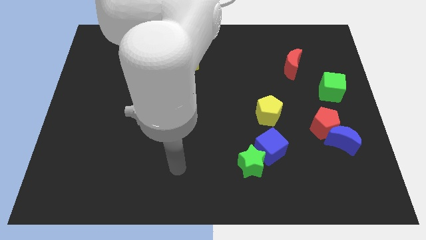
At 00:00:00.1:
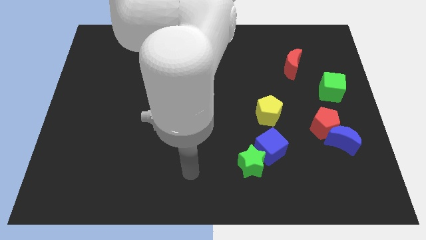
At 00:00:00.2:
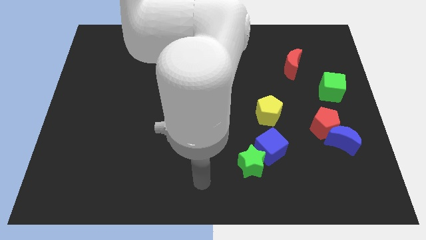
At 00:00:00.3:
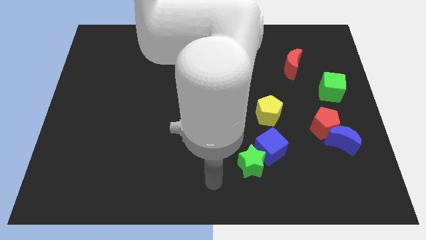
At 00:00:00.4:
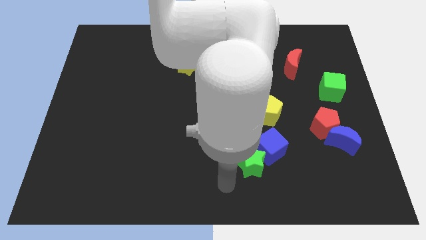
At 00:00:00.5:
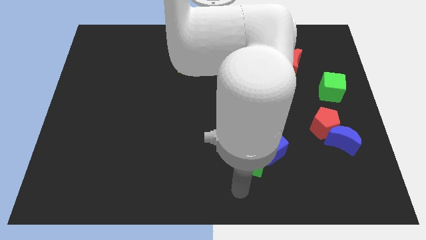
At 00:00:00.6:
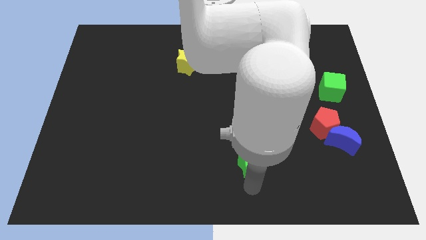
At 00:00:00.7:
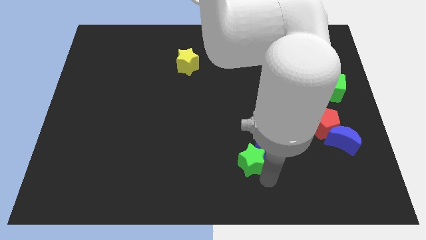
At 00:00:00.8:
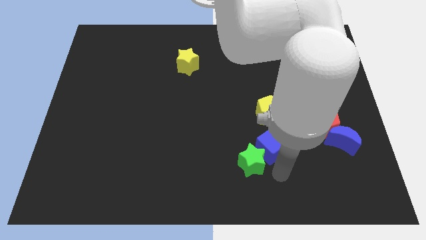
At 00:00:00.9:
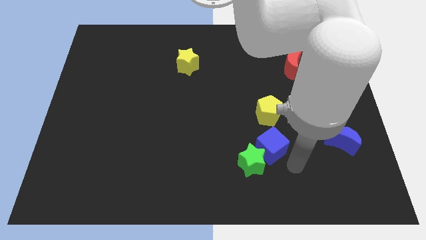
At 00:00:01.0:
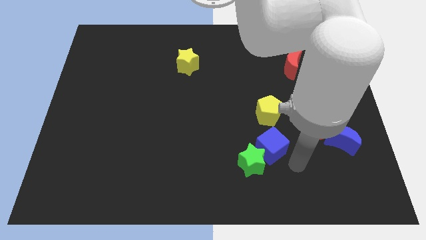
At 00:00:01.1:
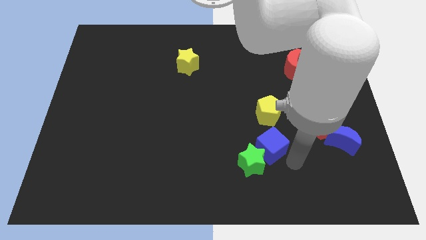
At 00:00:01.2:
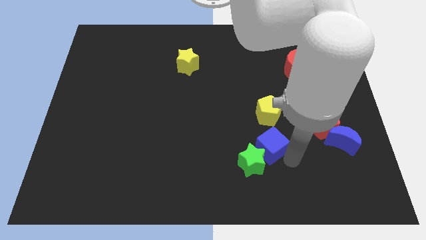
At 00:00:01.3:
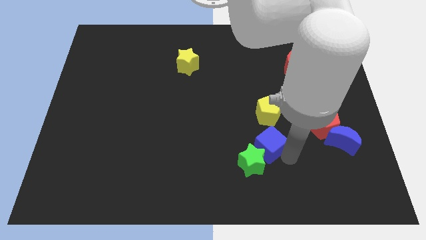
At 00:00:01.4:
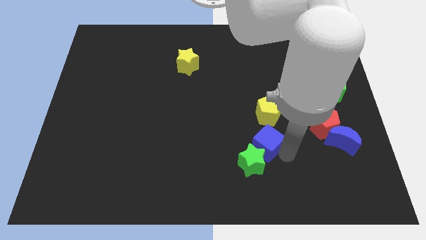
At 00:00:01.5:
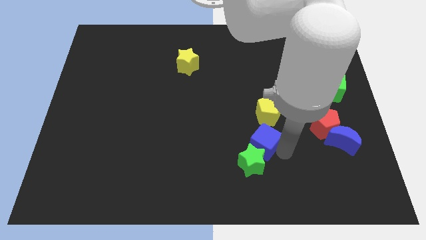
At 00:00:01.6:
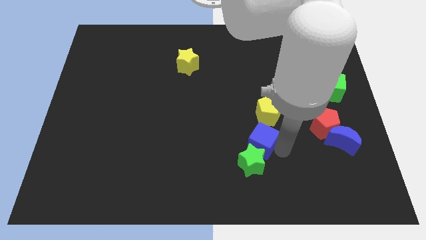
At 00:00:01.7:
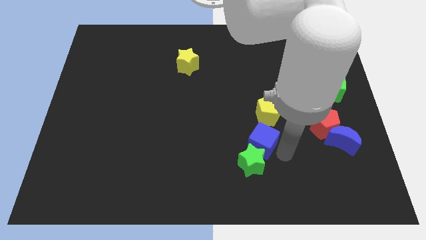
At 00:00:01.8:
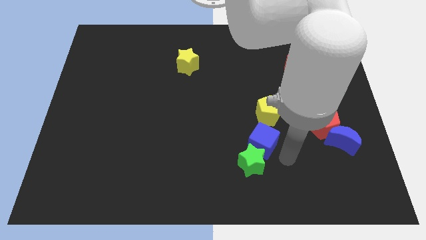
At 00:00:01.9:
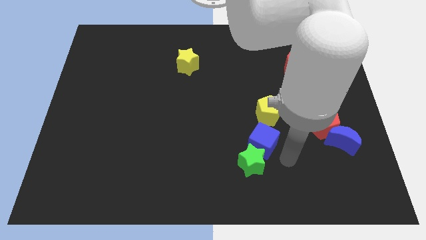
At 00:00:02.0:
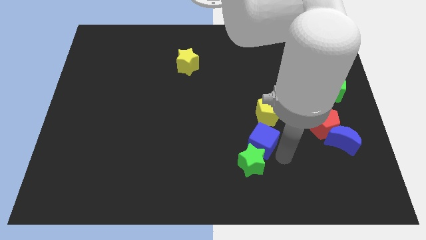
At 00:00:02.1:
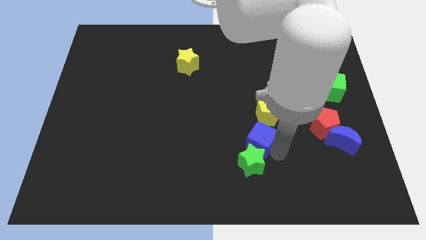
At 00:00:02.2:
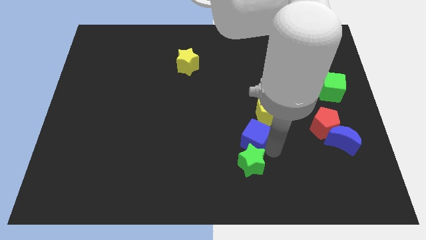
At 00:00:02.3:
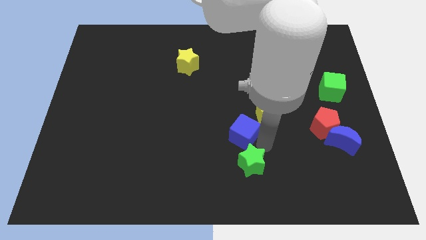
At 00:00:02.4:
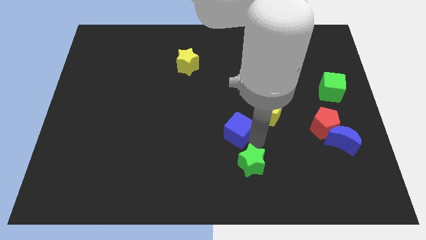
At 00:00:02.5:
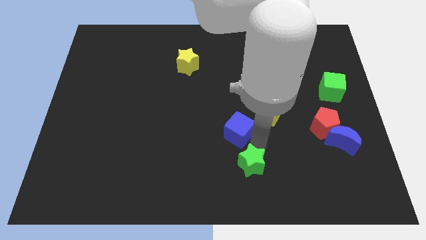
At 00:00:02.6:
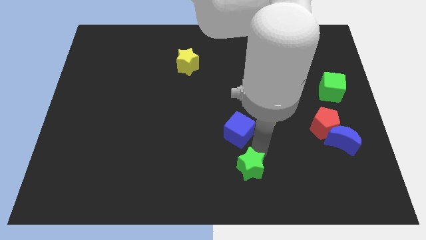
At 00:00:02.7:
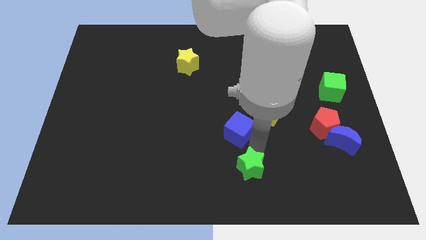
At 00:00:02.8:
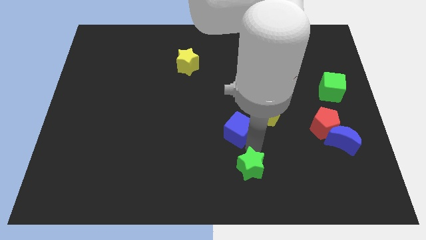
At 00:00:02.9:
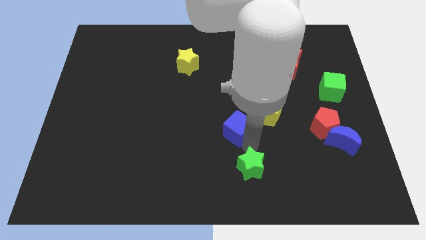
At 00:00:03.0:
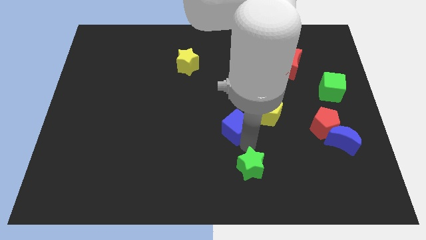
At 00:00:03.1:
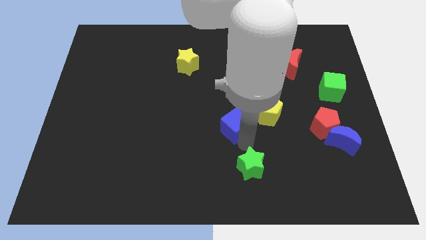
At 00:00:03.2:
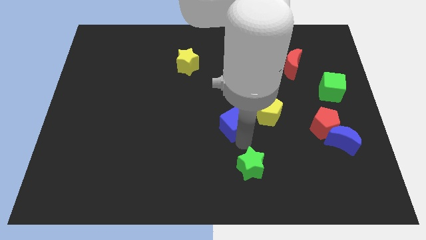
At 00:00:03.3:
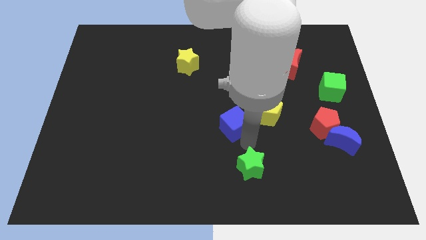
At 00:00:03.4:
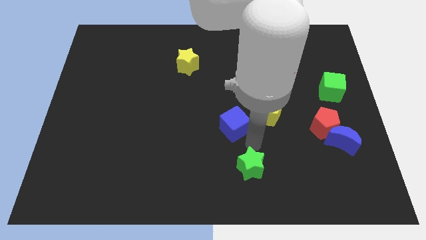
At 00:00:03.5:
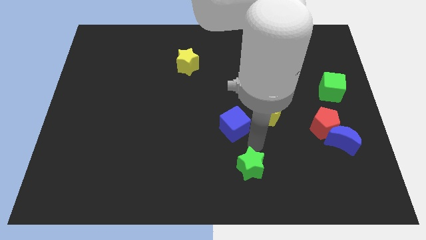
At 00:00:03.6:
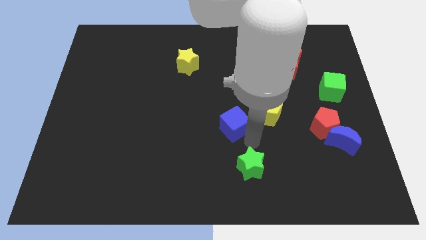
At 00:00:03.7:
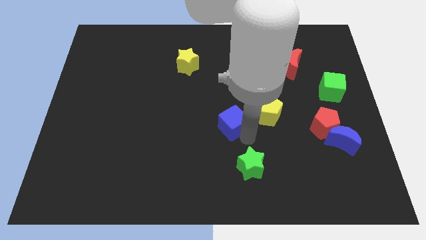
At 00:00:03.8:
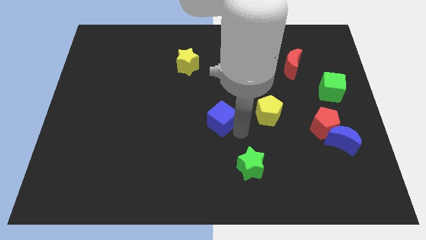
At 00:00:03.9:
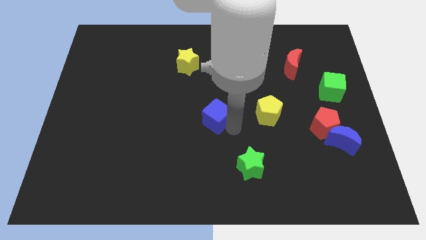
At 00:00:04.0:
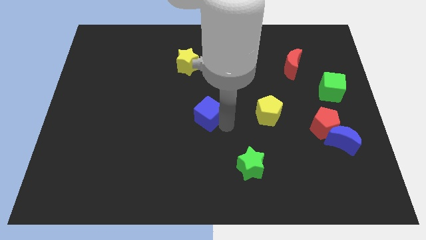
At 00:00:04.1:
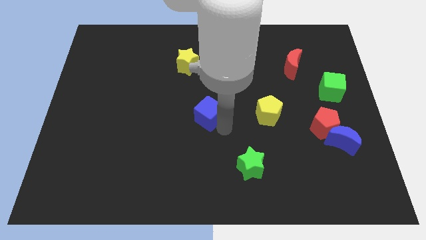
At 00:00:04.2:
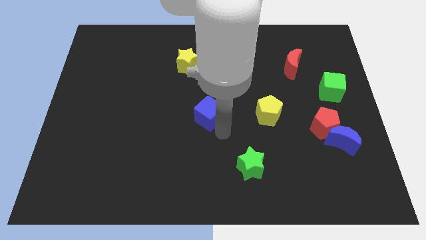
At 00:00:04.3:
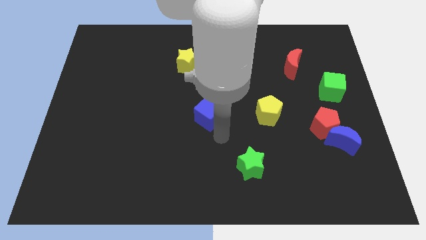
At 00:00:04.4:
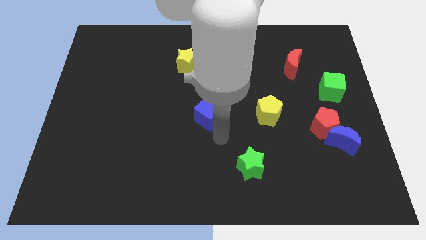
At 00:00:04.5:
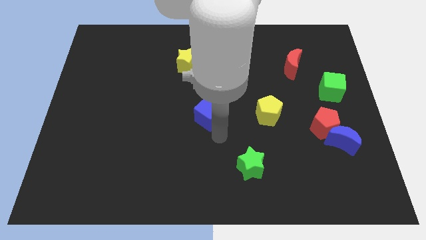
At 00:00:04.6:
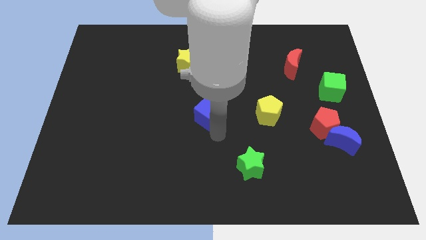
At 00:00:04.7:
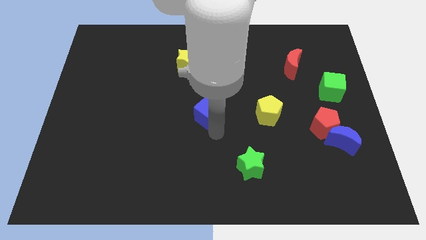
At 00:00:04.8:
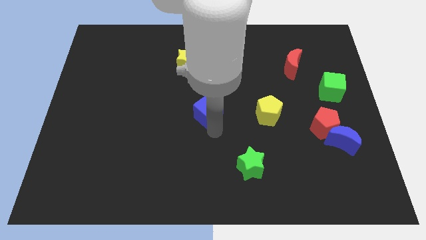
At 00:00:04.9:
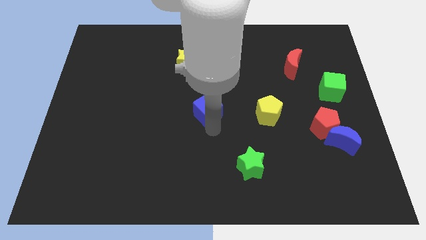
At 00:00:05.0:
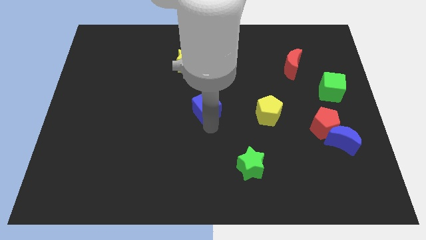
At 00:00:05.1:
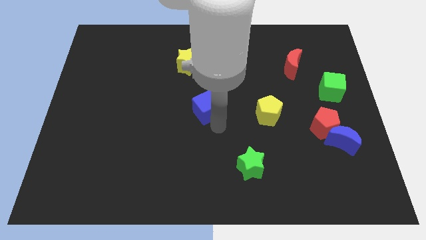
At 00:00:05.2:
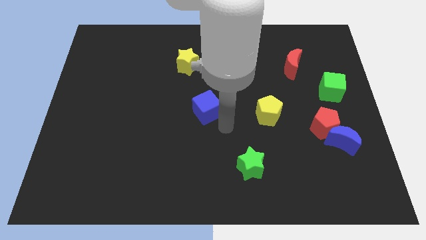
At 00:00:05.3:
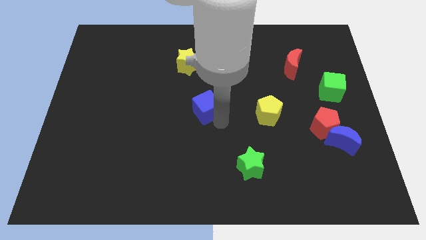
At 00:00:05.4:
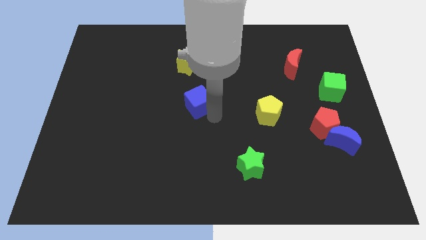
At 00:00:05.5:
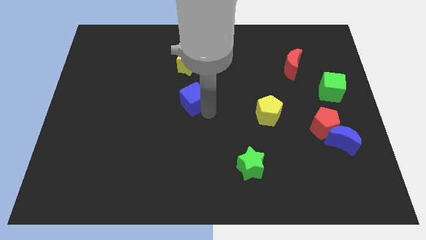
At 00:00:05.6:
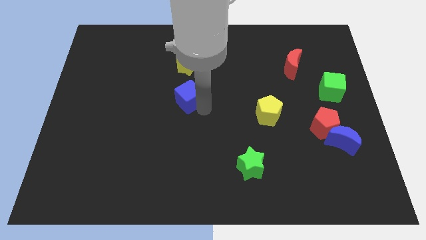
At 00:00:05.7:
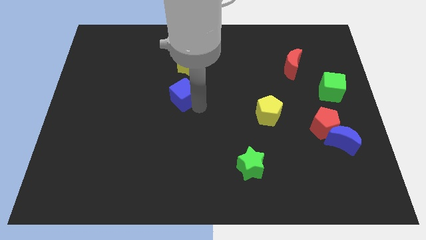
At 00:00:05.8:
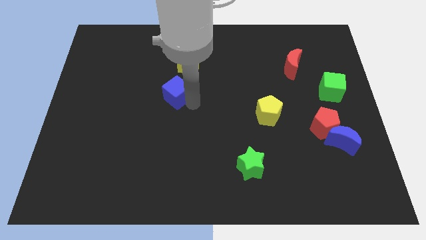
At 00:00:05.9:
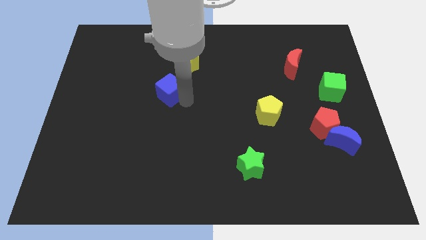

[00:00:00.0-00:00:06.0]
move the blue cube to the bottom left of the yellow star

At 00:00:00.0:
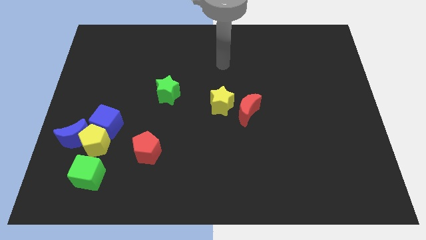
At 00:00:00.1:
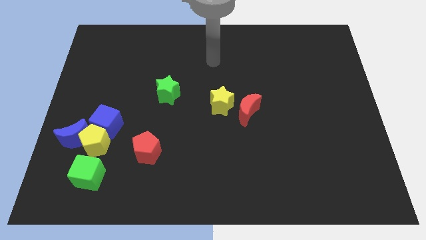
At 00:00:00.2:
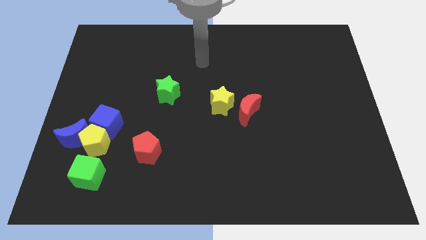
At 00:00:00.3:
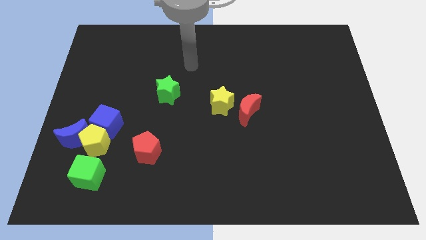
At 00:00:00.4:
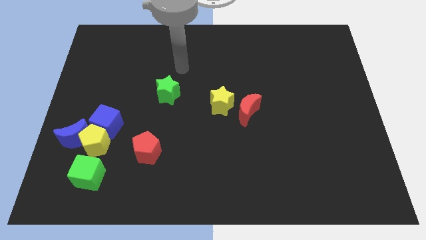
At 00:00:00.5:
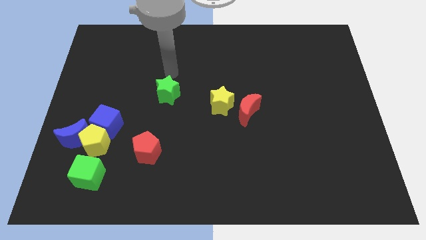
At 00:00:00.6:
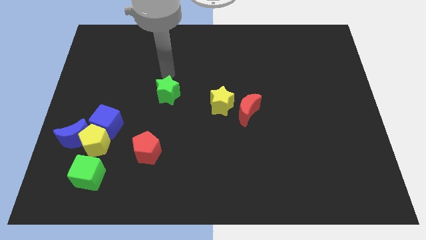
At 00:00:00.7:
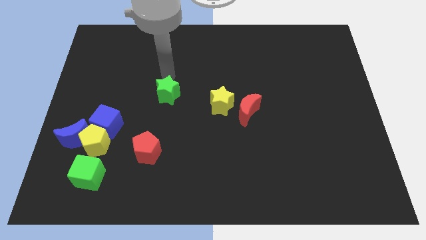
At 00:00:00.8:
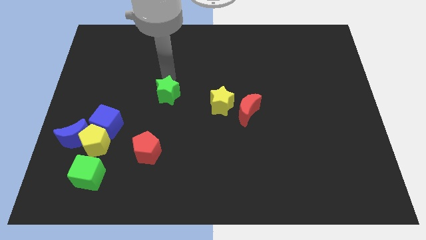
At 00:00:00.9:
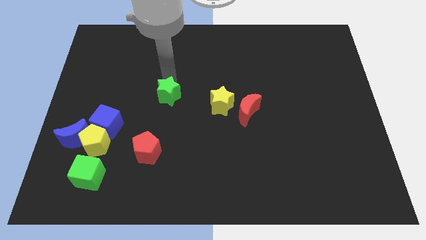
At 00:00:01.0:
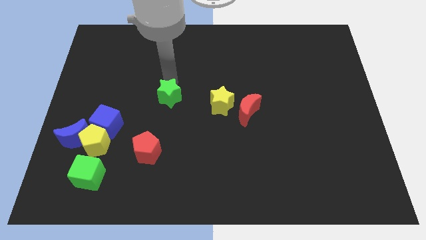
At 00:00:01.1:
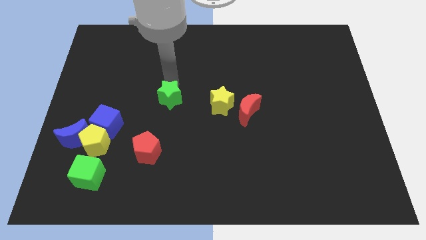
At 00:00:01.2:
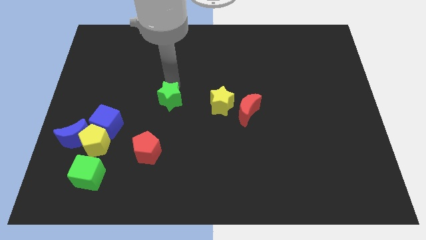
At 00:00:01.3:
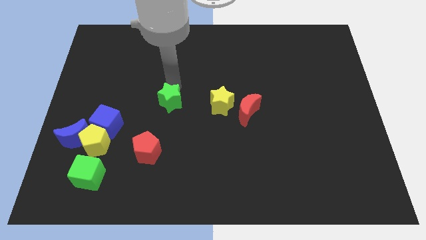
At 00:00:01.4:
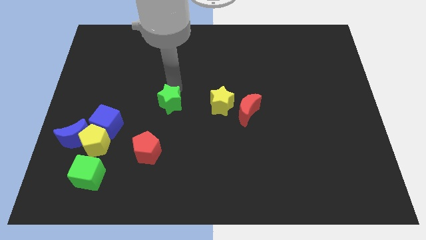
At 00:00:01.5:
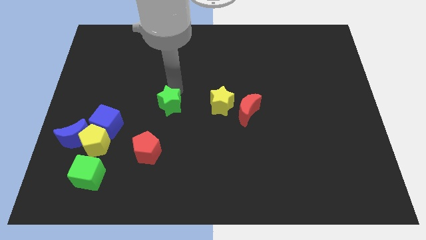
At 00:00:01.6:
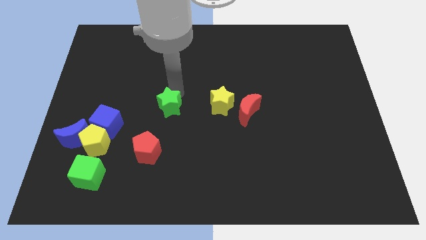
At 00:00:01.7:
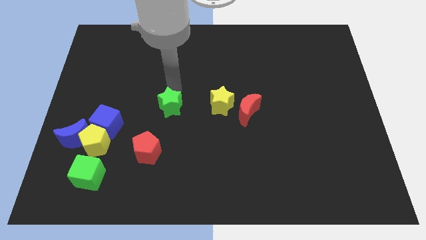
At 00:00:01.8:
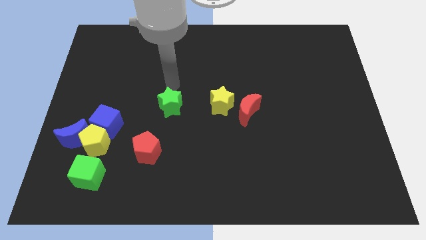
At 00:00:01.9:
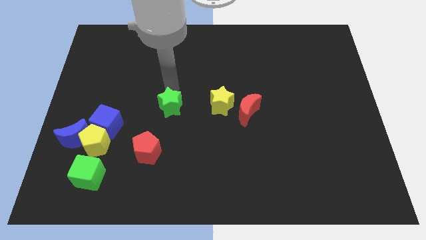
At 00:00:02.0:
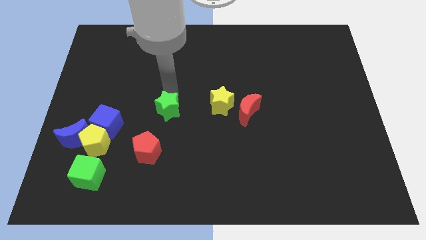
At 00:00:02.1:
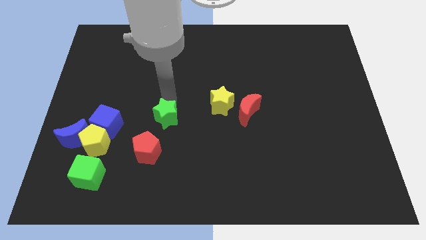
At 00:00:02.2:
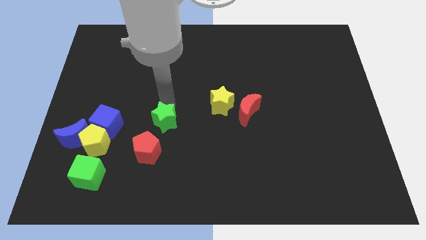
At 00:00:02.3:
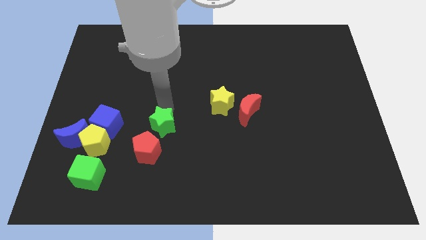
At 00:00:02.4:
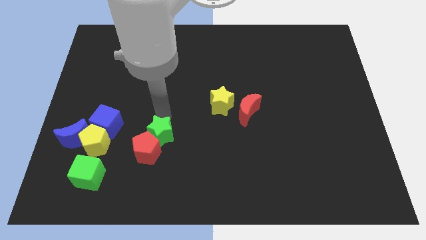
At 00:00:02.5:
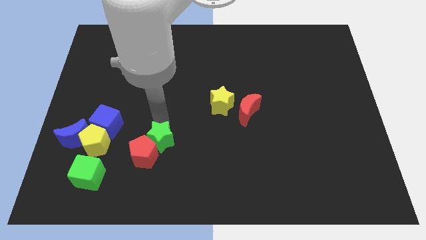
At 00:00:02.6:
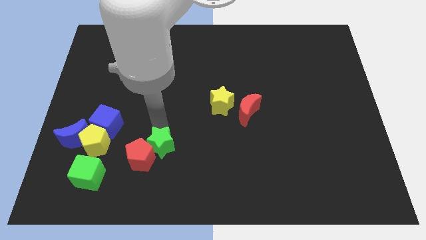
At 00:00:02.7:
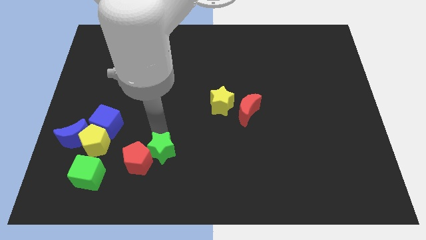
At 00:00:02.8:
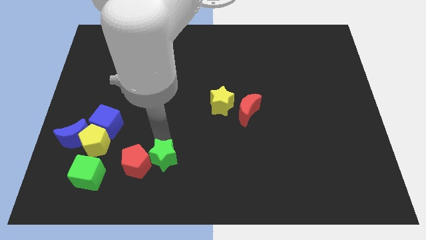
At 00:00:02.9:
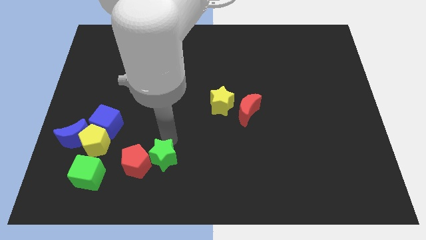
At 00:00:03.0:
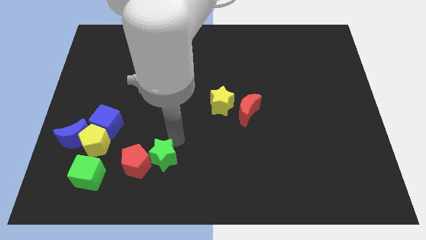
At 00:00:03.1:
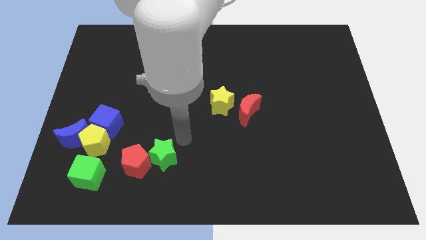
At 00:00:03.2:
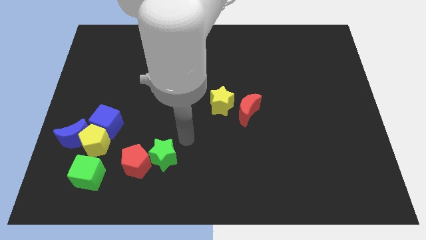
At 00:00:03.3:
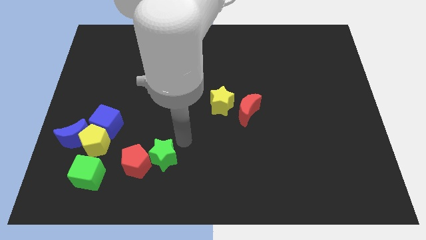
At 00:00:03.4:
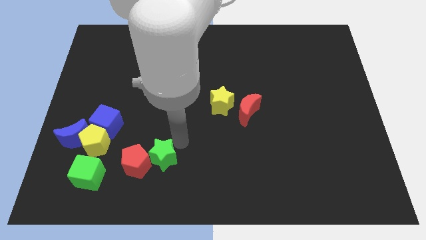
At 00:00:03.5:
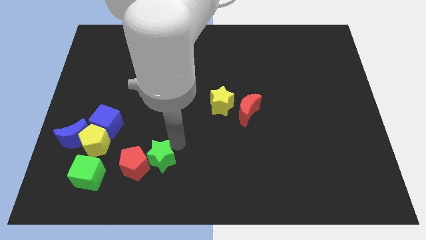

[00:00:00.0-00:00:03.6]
slide the green star to the right side of the green cube
